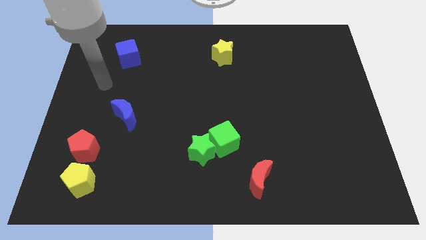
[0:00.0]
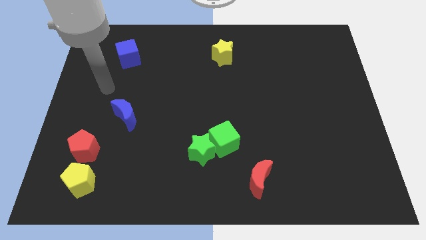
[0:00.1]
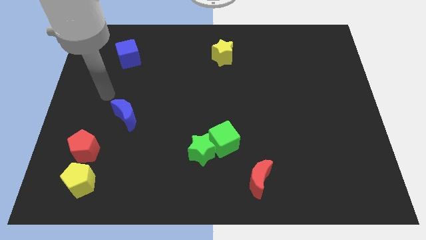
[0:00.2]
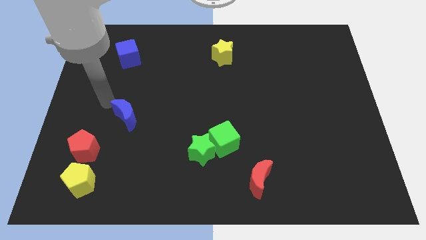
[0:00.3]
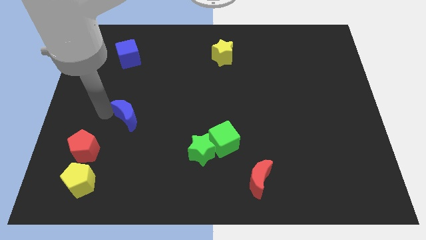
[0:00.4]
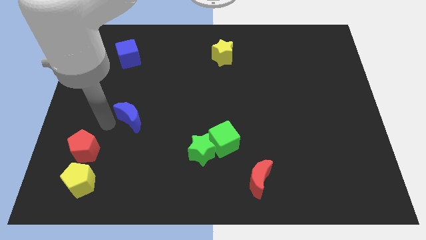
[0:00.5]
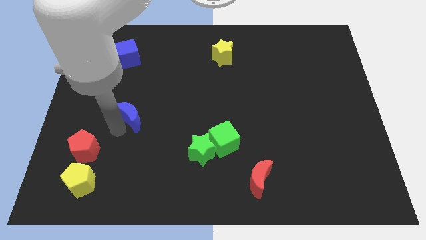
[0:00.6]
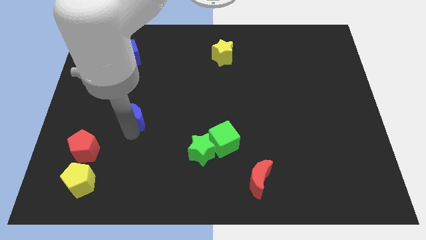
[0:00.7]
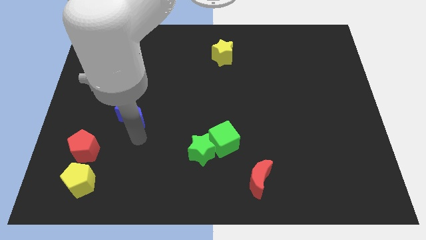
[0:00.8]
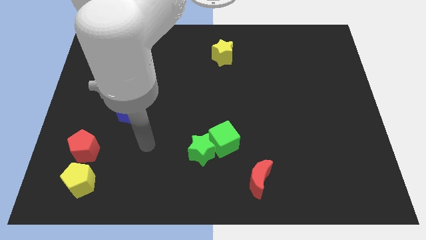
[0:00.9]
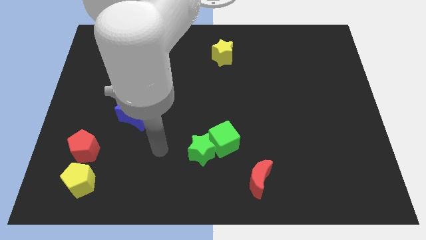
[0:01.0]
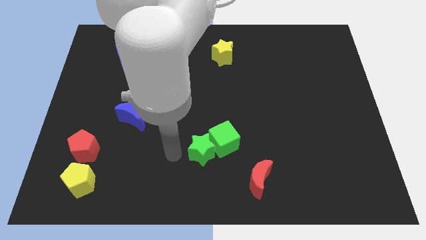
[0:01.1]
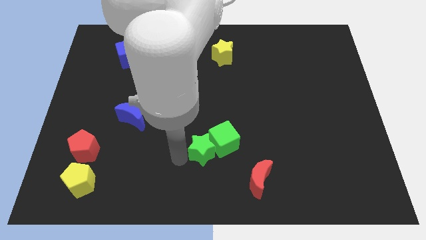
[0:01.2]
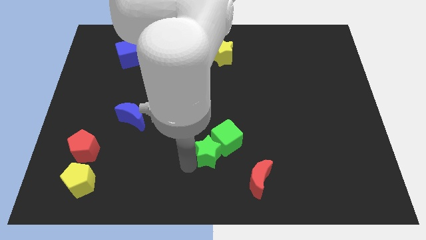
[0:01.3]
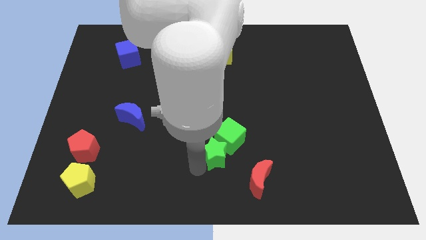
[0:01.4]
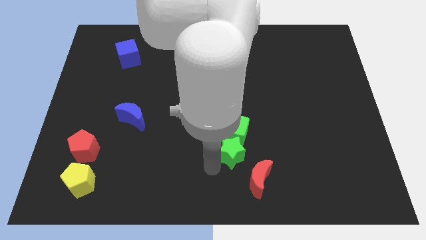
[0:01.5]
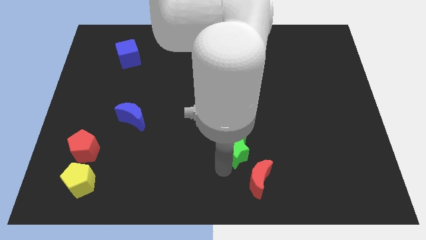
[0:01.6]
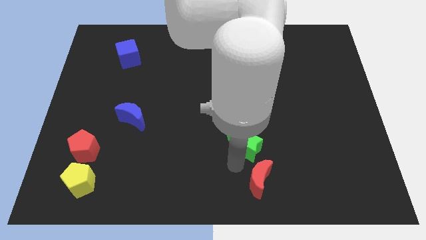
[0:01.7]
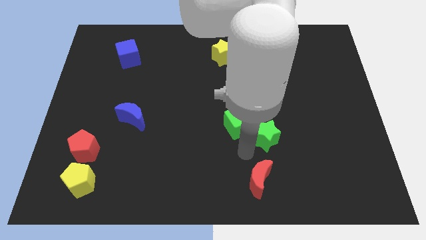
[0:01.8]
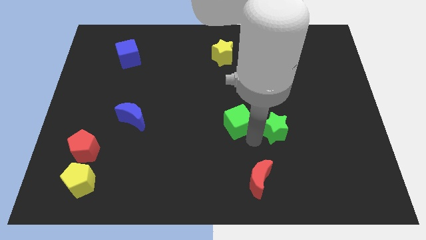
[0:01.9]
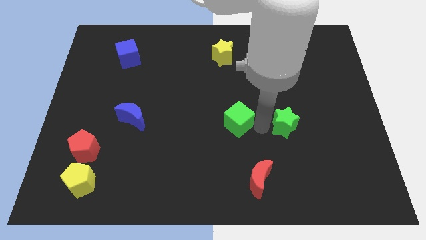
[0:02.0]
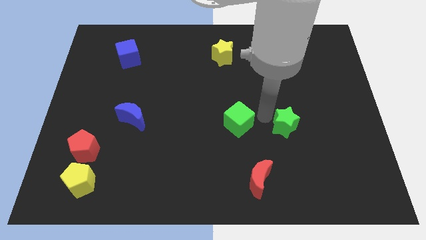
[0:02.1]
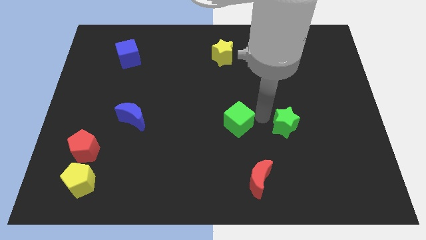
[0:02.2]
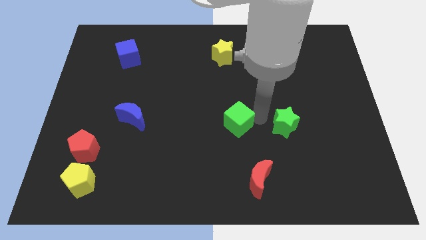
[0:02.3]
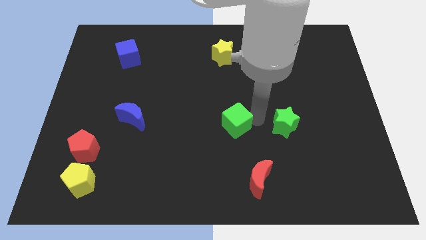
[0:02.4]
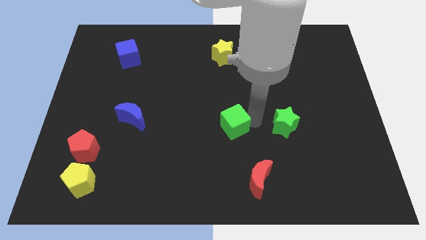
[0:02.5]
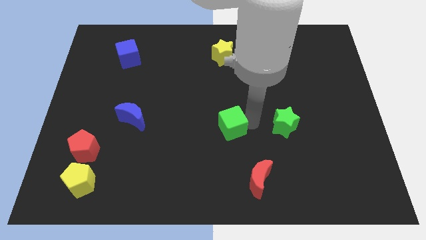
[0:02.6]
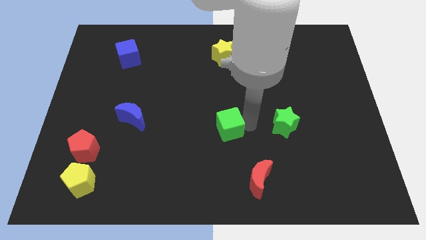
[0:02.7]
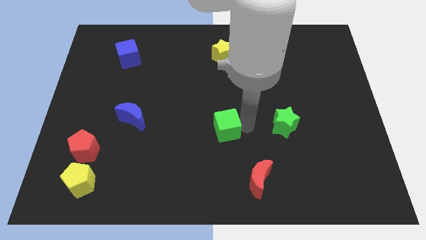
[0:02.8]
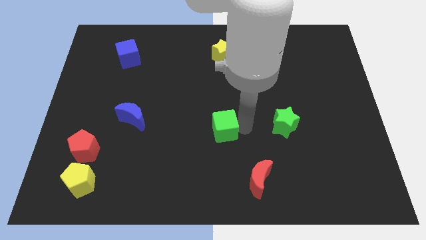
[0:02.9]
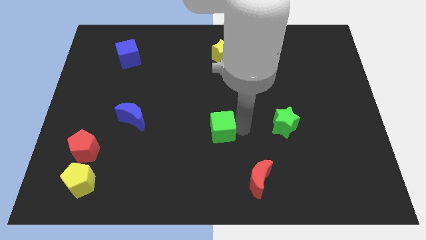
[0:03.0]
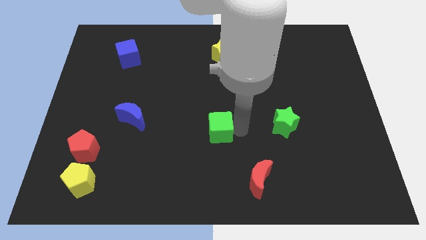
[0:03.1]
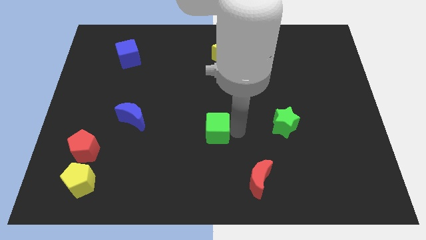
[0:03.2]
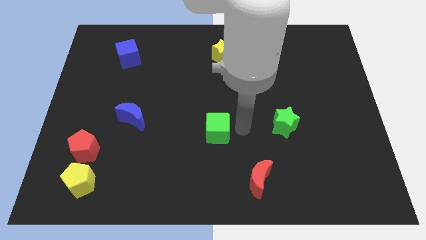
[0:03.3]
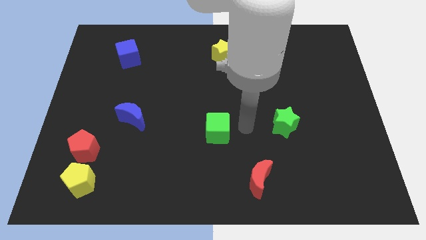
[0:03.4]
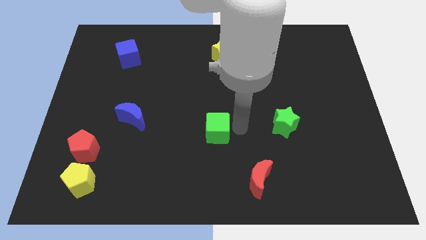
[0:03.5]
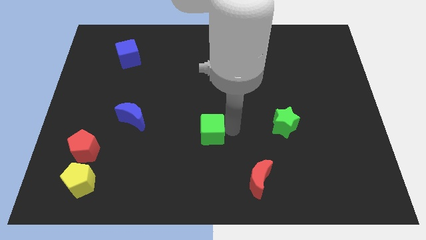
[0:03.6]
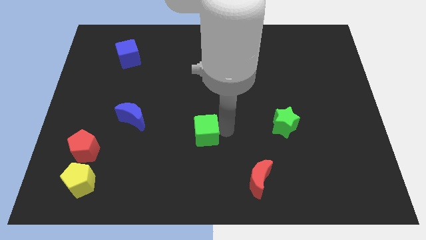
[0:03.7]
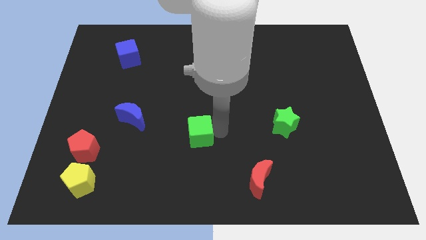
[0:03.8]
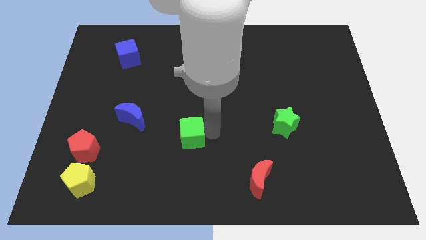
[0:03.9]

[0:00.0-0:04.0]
slide the green cube to the left a bit

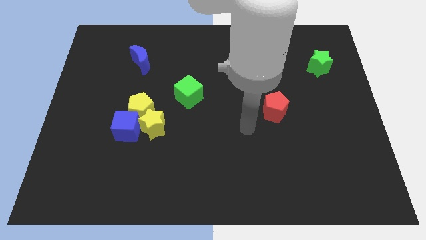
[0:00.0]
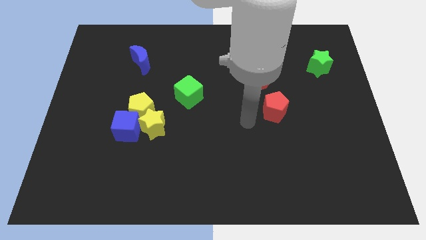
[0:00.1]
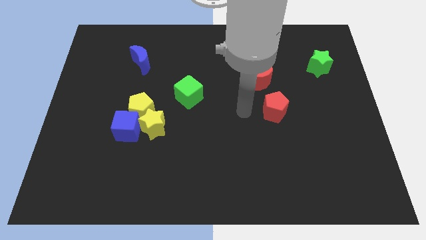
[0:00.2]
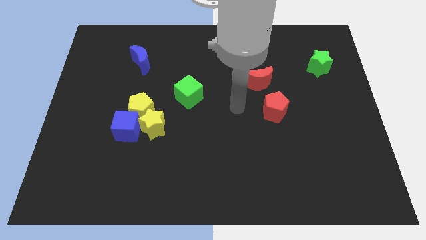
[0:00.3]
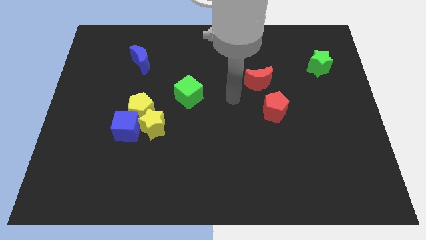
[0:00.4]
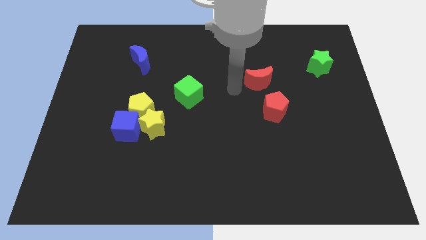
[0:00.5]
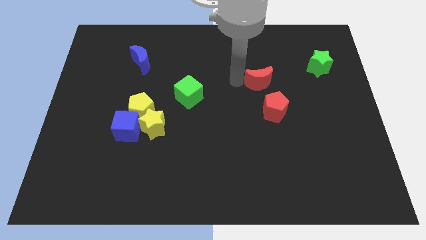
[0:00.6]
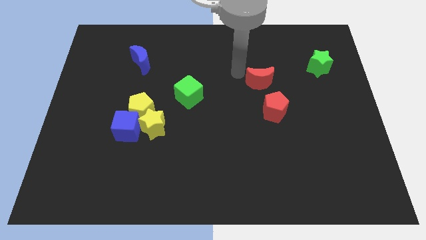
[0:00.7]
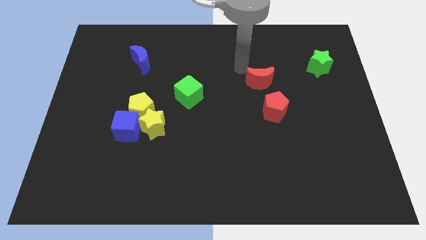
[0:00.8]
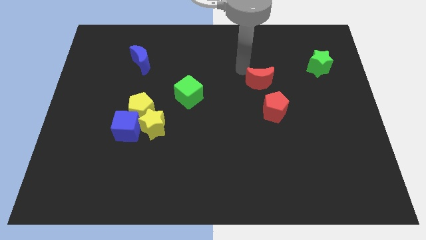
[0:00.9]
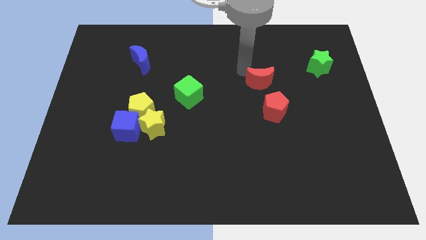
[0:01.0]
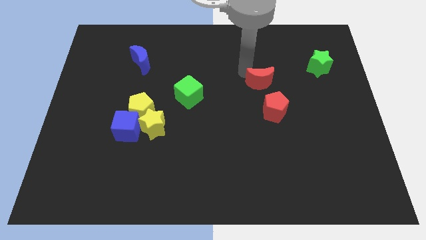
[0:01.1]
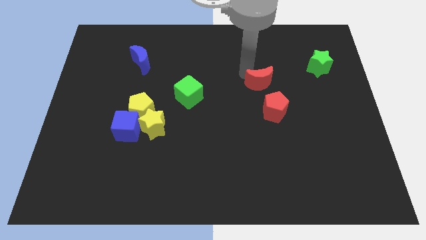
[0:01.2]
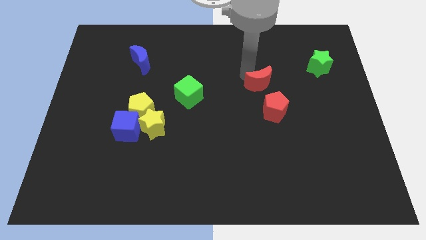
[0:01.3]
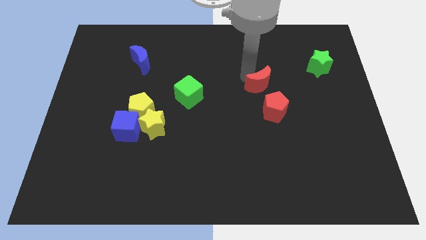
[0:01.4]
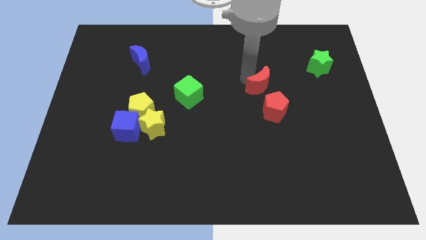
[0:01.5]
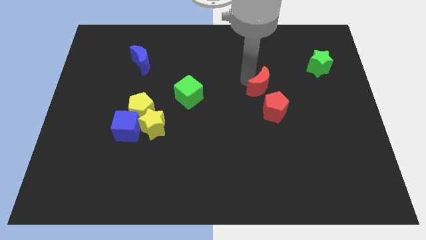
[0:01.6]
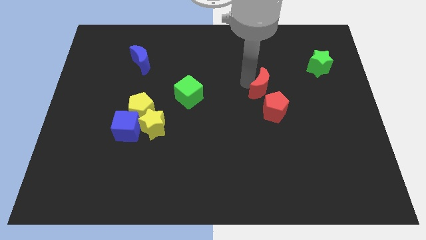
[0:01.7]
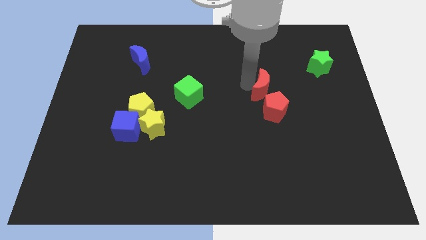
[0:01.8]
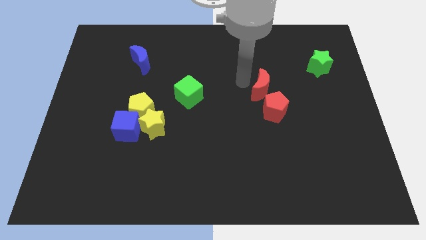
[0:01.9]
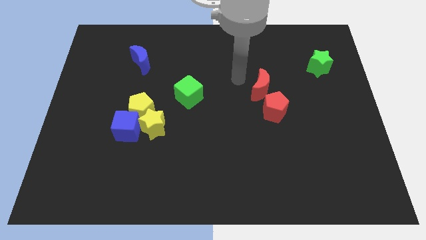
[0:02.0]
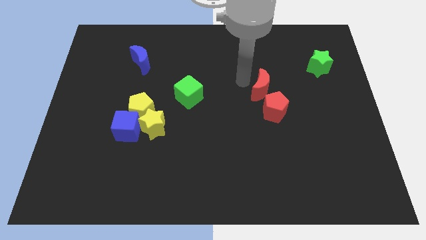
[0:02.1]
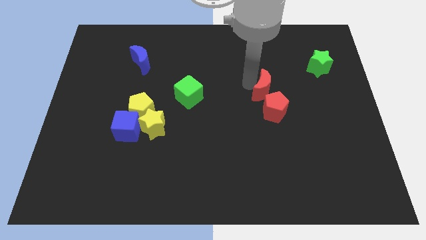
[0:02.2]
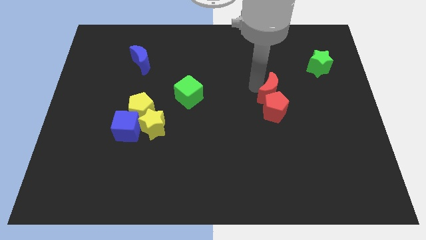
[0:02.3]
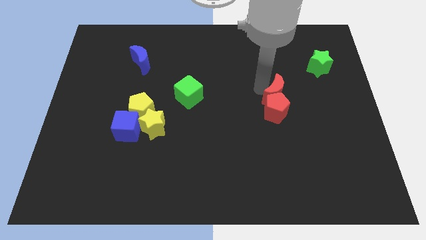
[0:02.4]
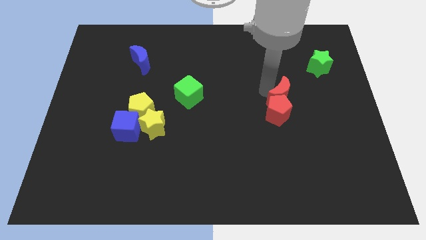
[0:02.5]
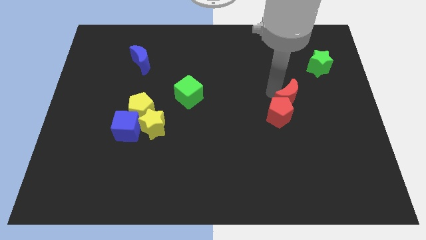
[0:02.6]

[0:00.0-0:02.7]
slightly slide the red moon down and then right

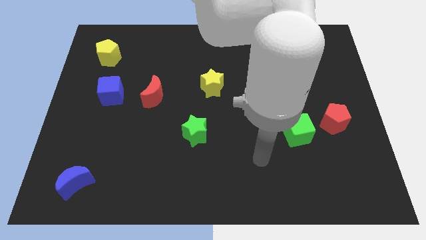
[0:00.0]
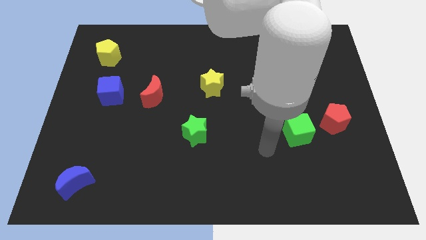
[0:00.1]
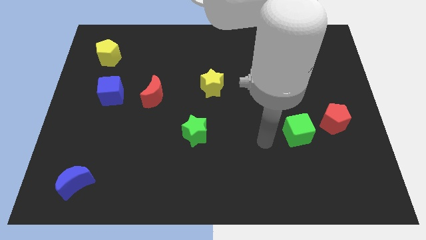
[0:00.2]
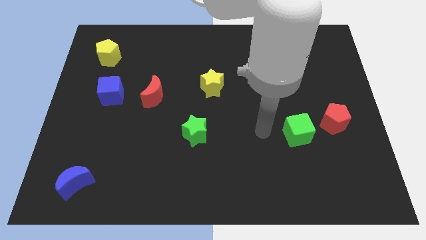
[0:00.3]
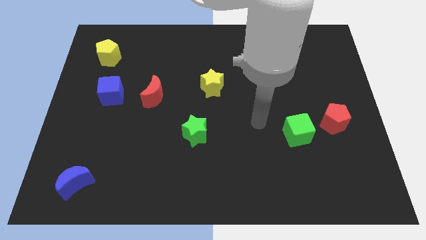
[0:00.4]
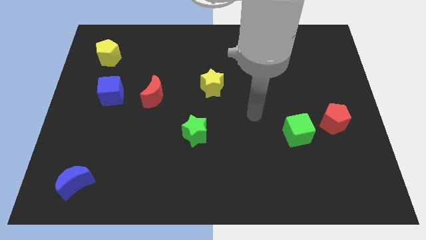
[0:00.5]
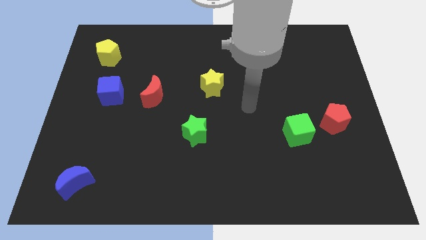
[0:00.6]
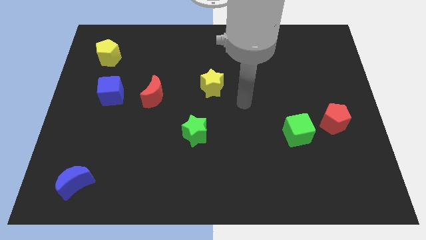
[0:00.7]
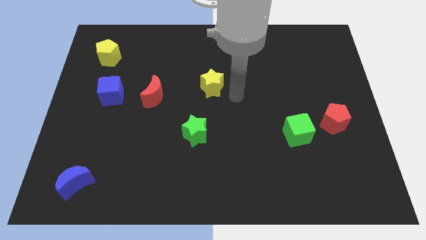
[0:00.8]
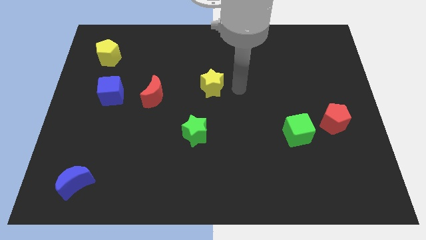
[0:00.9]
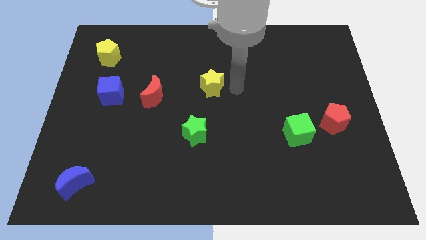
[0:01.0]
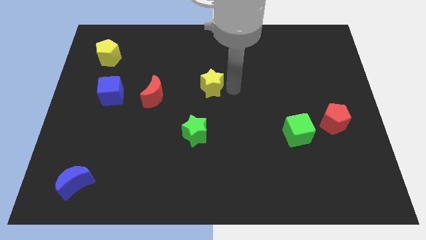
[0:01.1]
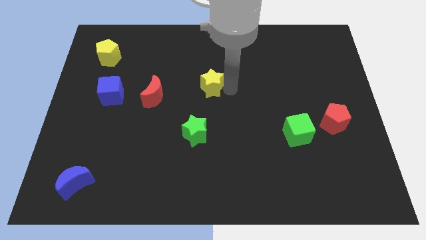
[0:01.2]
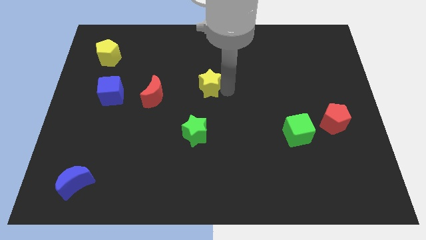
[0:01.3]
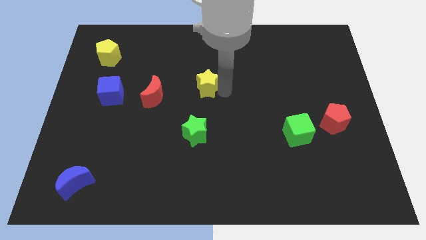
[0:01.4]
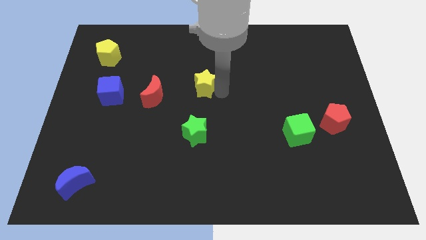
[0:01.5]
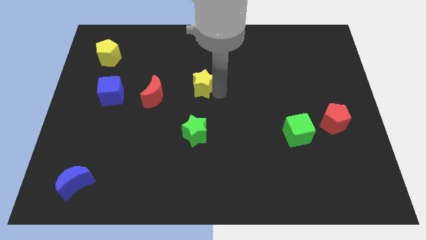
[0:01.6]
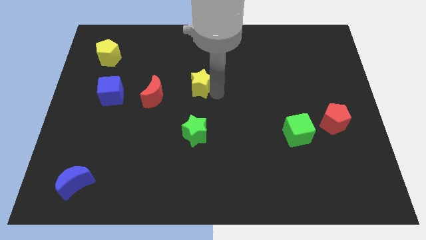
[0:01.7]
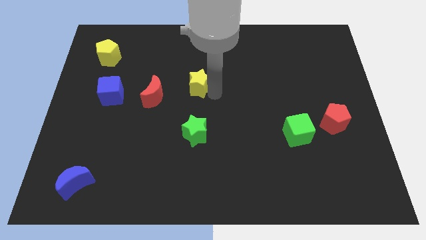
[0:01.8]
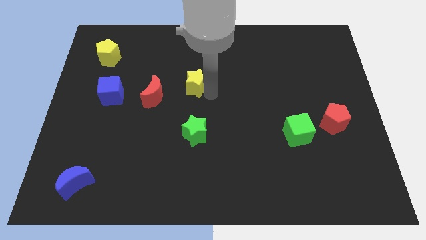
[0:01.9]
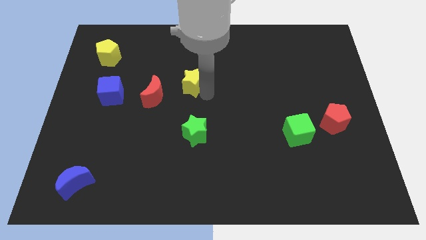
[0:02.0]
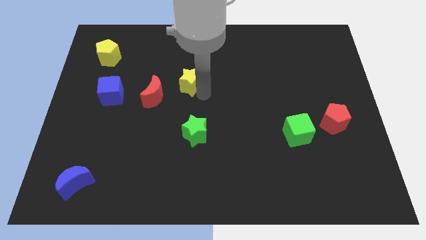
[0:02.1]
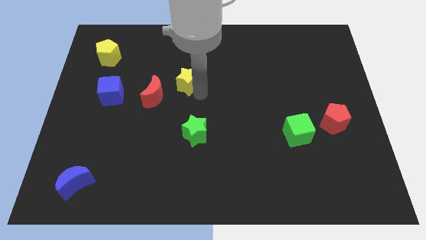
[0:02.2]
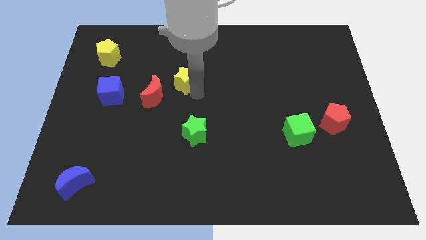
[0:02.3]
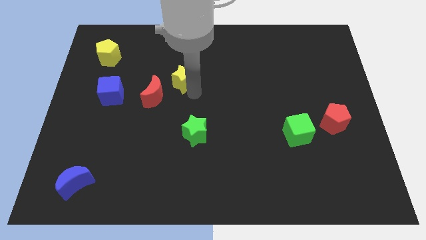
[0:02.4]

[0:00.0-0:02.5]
move the yellow star left a bit
